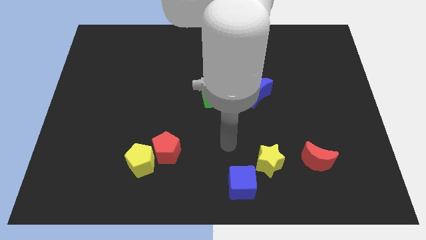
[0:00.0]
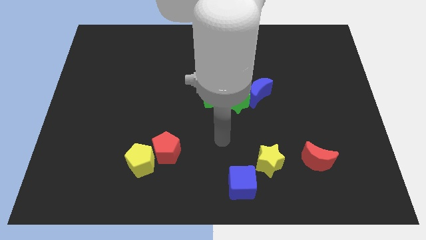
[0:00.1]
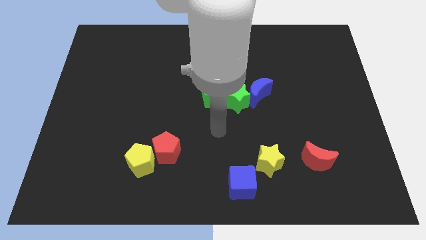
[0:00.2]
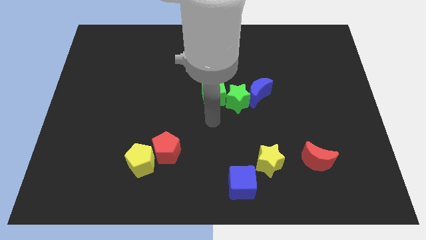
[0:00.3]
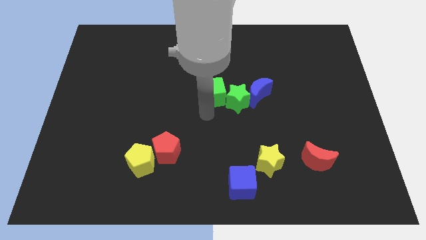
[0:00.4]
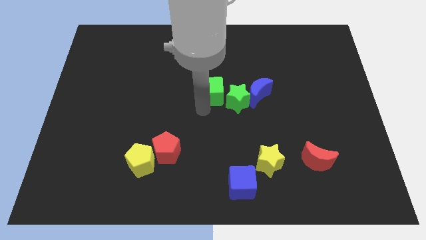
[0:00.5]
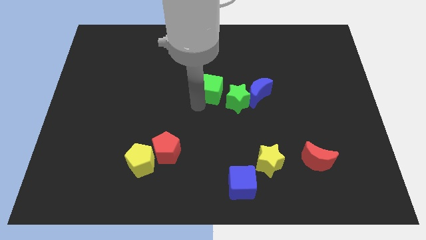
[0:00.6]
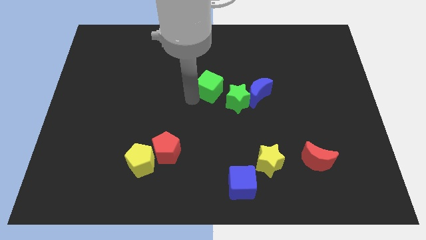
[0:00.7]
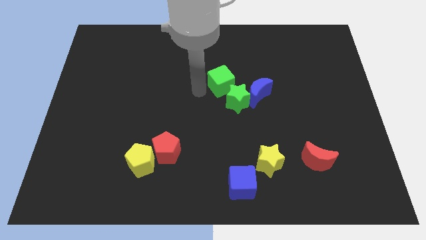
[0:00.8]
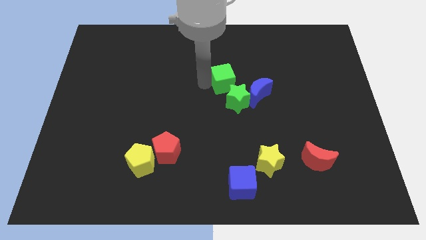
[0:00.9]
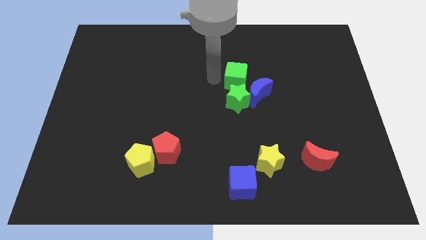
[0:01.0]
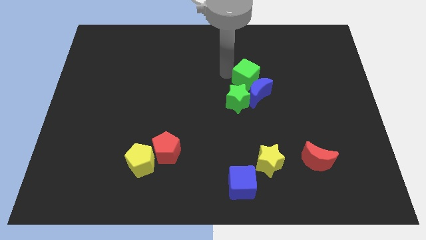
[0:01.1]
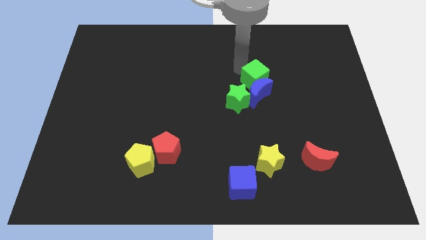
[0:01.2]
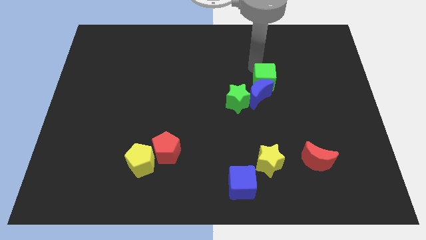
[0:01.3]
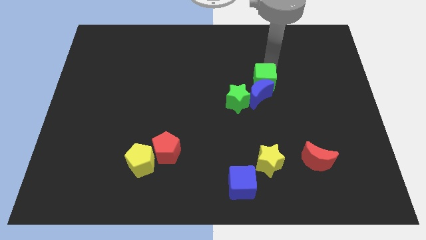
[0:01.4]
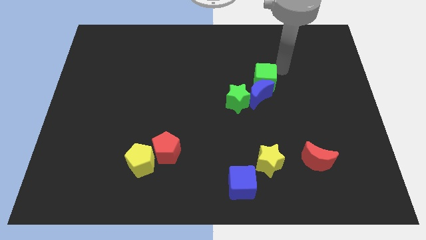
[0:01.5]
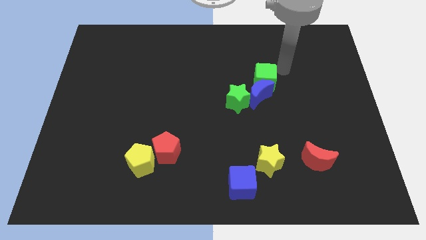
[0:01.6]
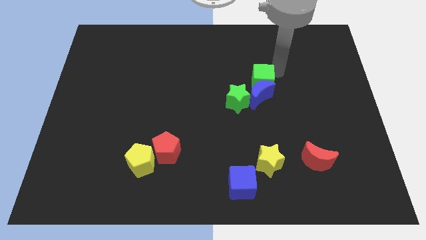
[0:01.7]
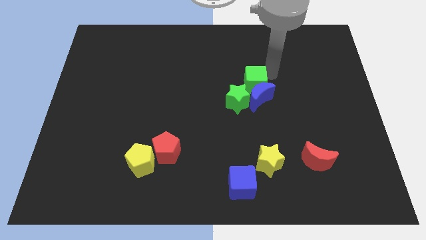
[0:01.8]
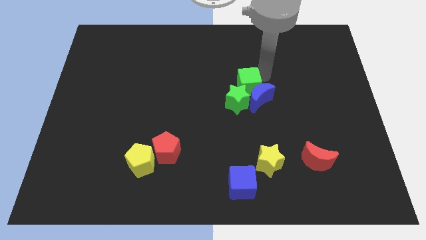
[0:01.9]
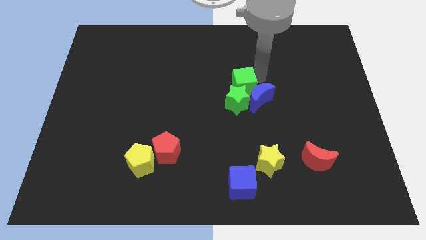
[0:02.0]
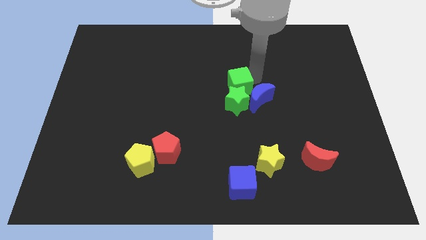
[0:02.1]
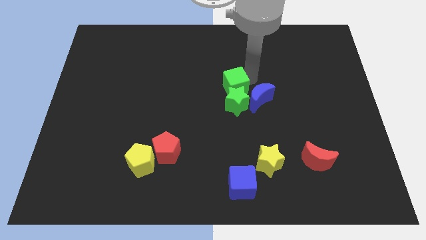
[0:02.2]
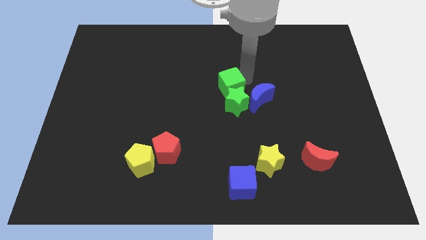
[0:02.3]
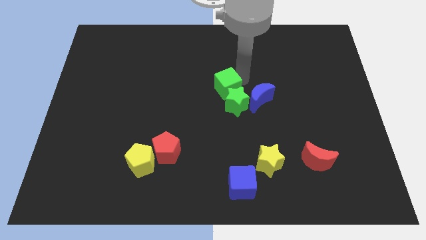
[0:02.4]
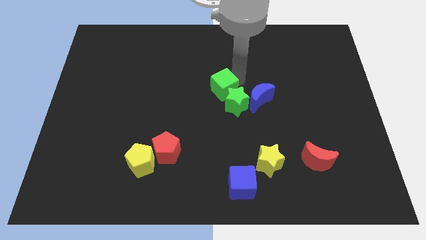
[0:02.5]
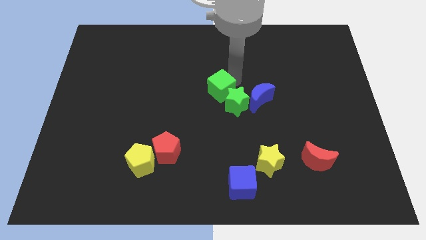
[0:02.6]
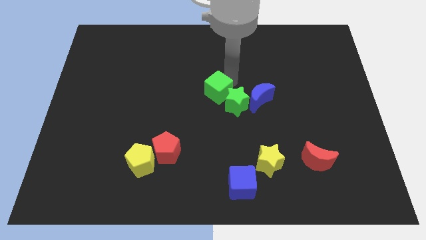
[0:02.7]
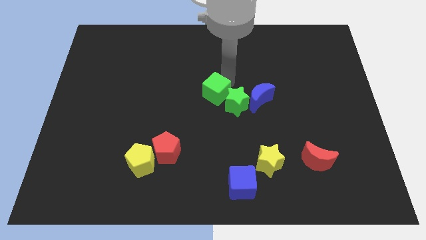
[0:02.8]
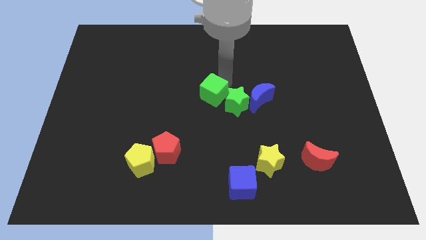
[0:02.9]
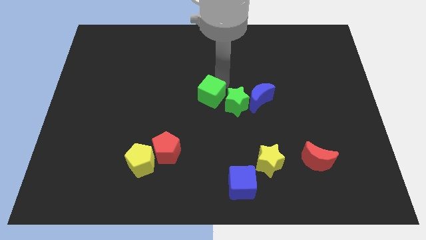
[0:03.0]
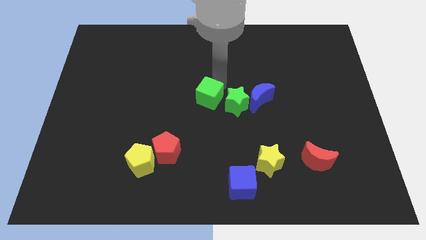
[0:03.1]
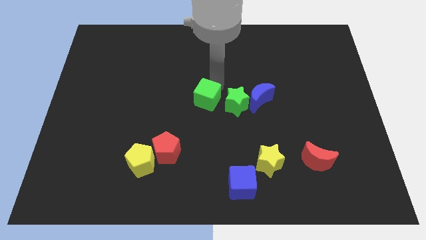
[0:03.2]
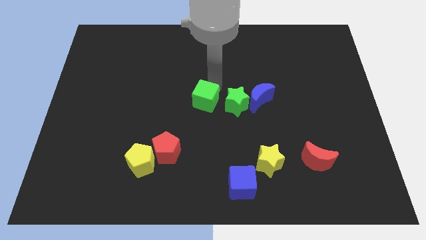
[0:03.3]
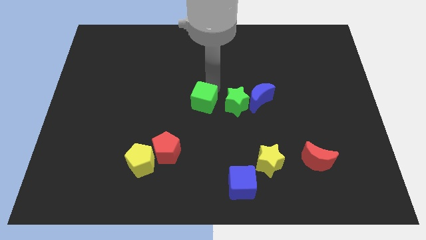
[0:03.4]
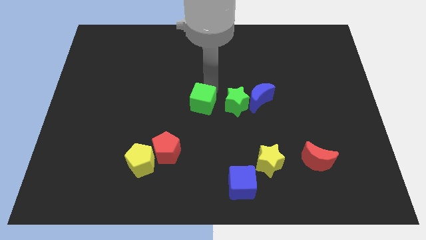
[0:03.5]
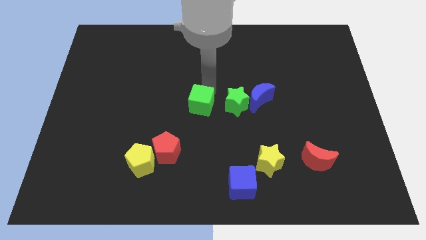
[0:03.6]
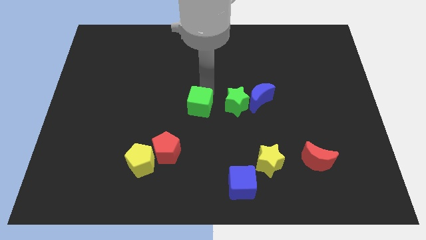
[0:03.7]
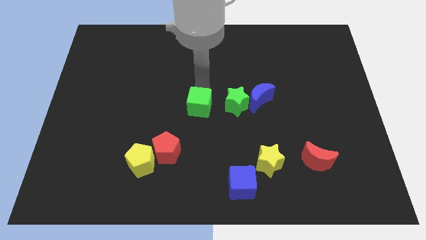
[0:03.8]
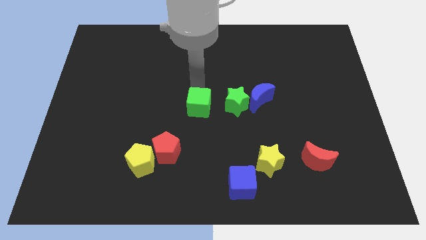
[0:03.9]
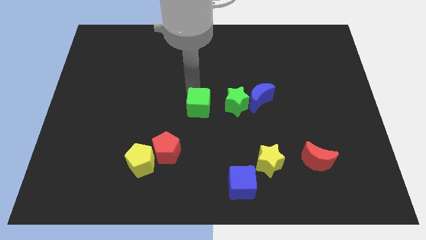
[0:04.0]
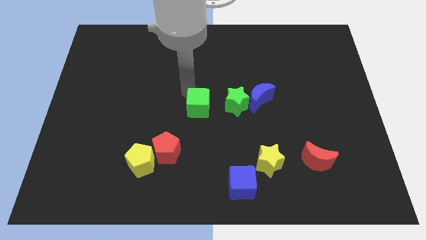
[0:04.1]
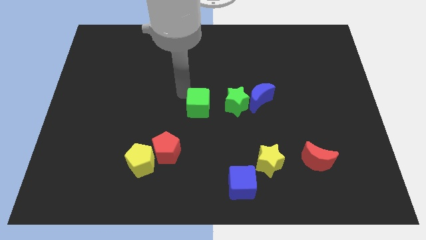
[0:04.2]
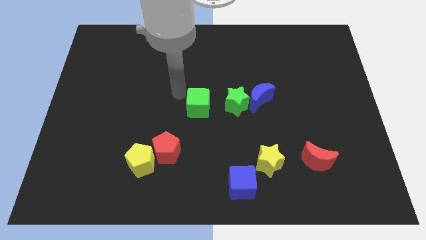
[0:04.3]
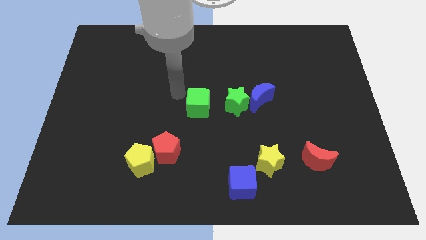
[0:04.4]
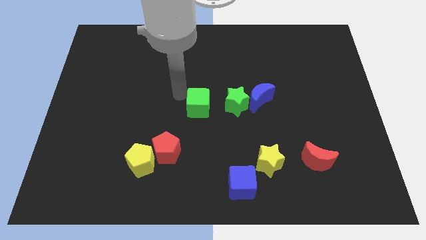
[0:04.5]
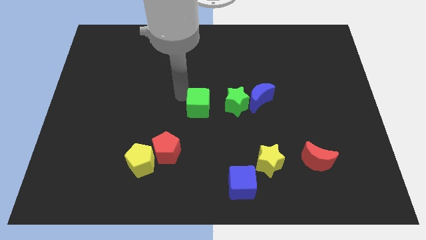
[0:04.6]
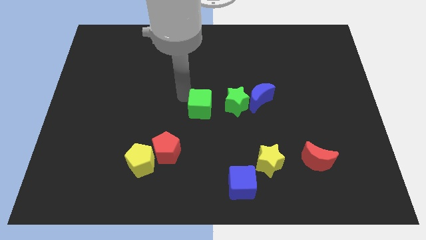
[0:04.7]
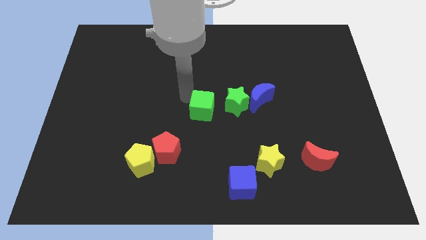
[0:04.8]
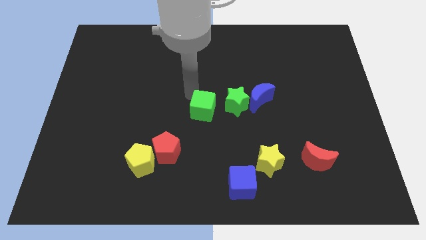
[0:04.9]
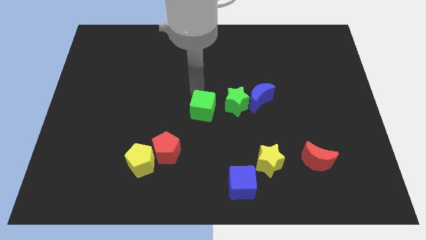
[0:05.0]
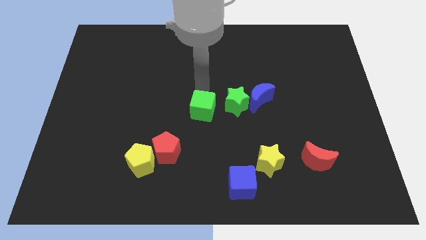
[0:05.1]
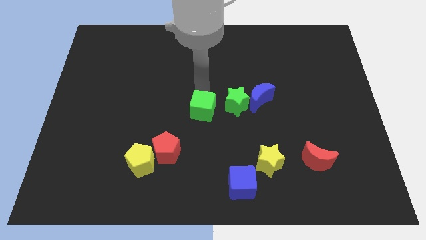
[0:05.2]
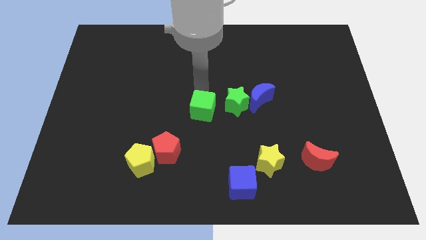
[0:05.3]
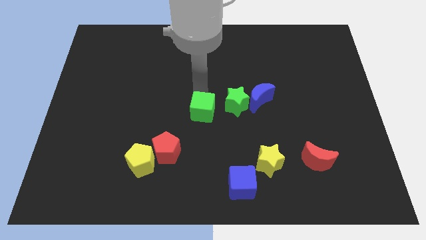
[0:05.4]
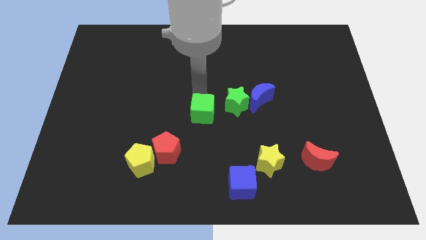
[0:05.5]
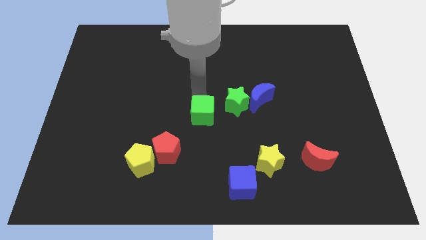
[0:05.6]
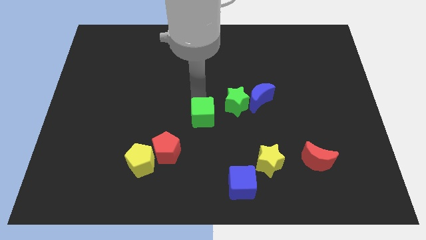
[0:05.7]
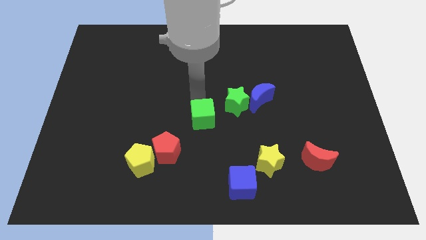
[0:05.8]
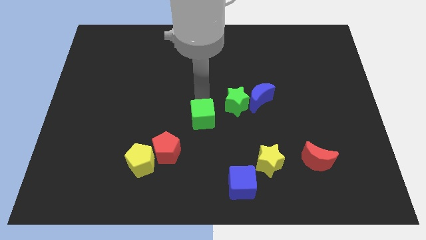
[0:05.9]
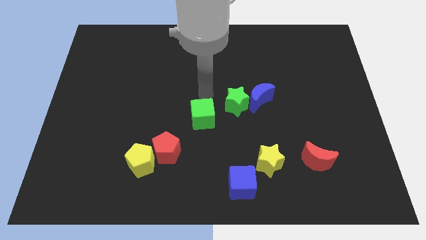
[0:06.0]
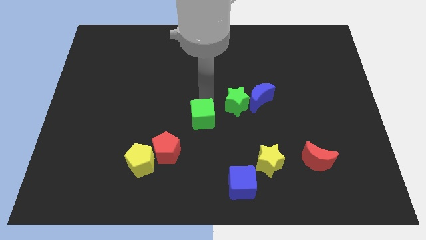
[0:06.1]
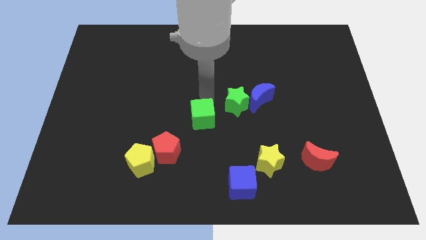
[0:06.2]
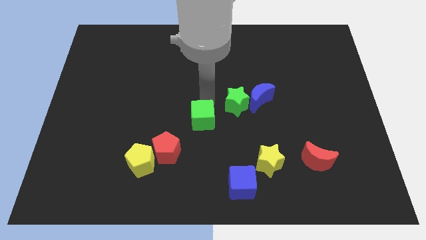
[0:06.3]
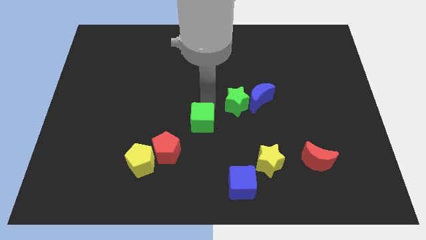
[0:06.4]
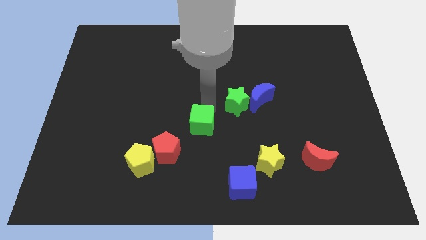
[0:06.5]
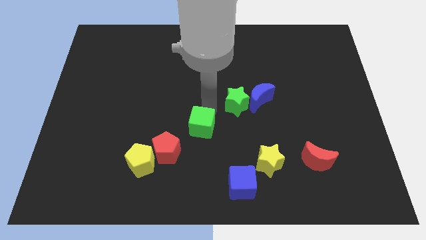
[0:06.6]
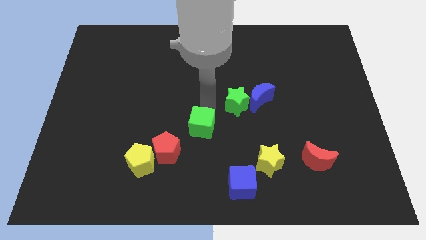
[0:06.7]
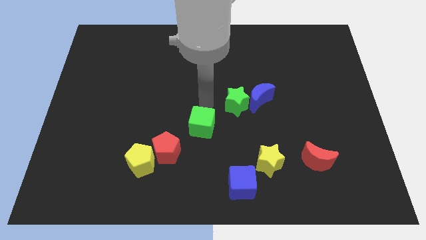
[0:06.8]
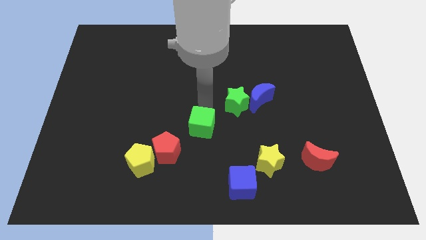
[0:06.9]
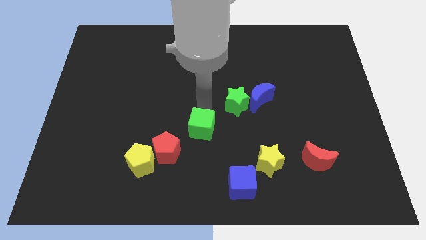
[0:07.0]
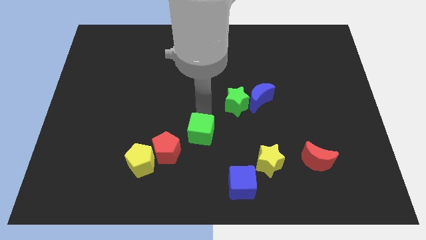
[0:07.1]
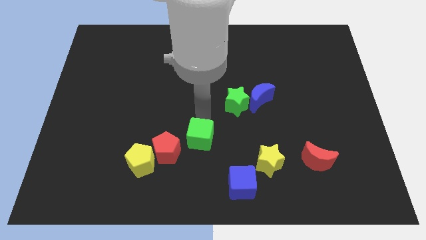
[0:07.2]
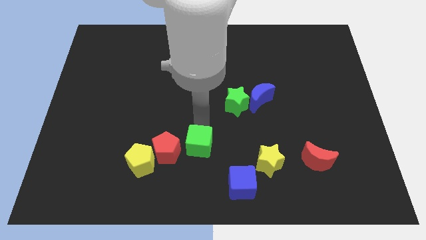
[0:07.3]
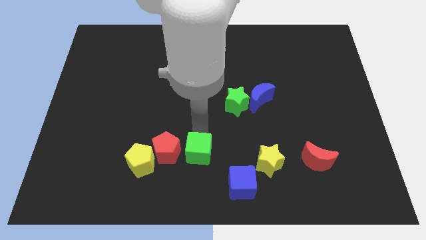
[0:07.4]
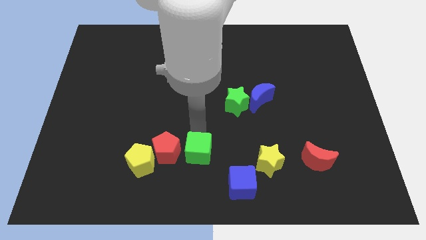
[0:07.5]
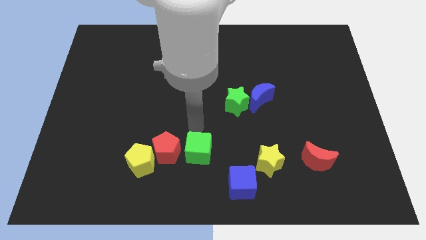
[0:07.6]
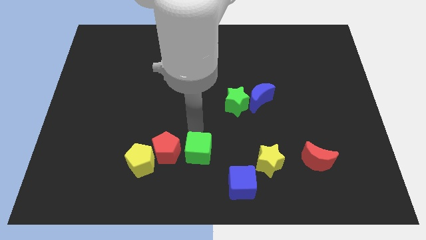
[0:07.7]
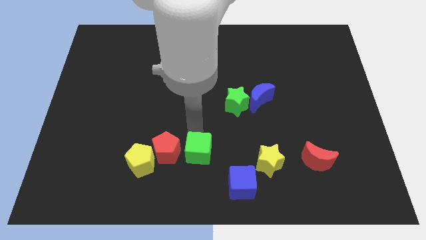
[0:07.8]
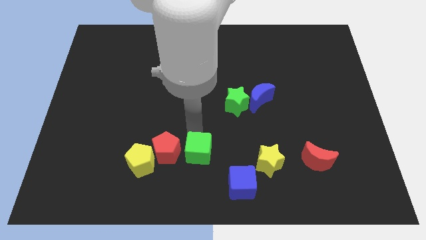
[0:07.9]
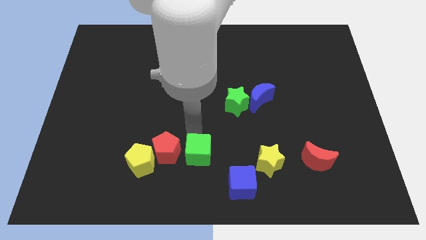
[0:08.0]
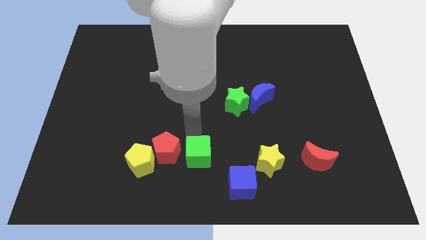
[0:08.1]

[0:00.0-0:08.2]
put the green cube to the bottom side
